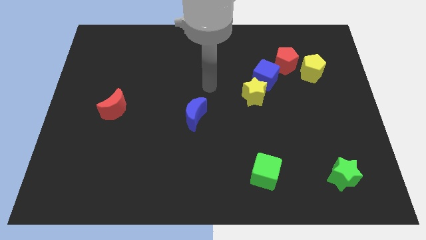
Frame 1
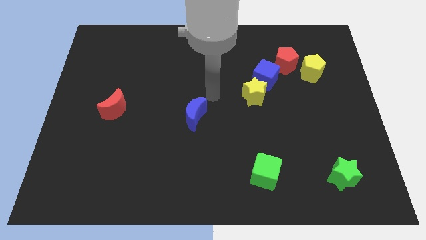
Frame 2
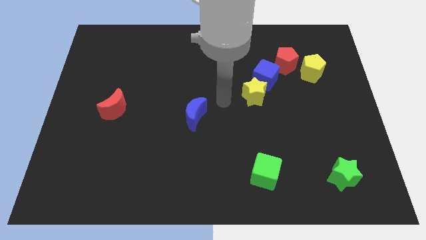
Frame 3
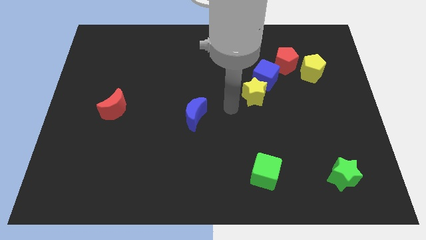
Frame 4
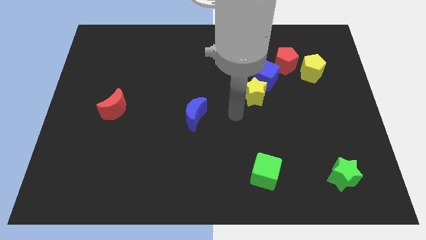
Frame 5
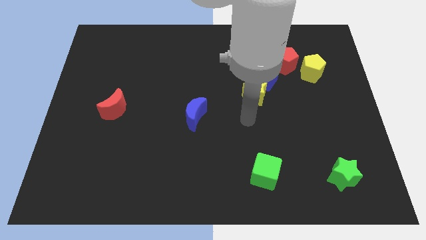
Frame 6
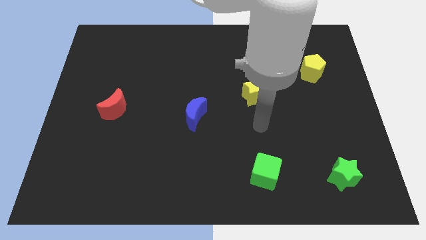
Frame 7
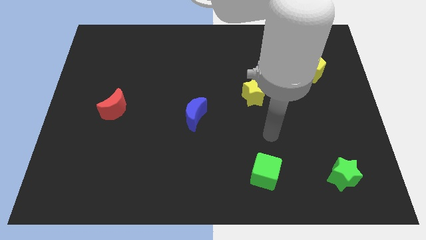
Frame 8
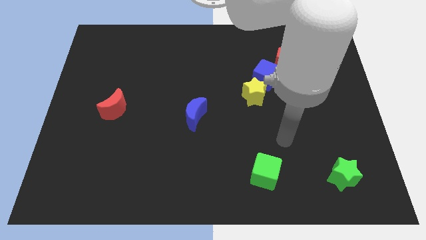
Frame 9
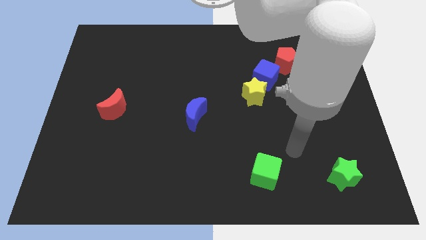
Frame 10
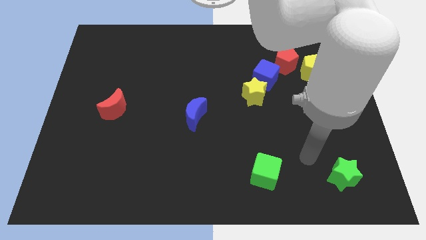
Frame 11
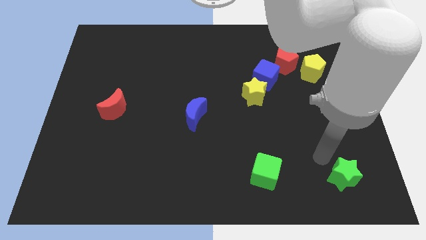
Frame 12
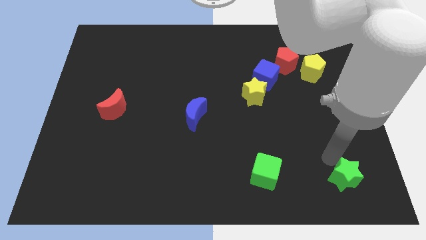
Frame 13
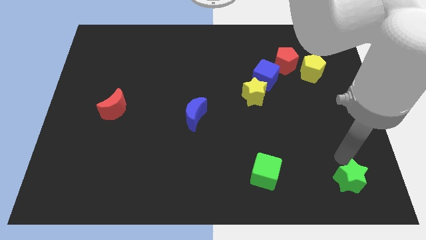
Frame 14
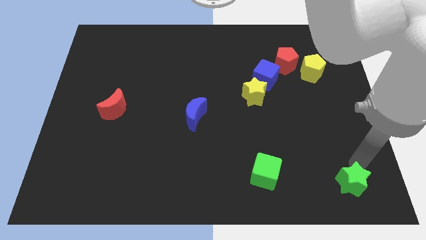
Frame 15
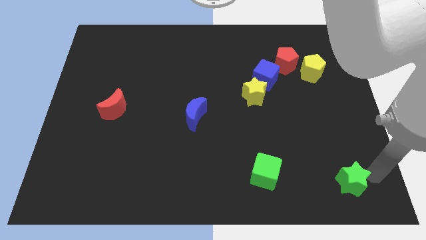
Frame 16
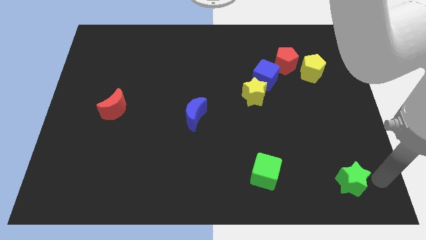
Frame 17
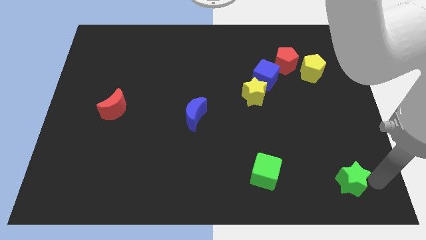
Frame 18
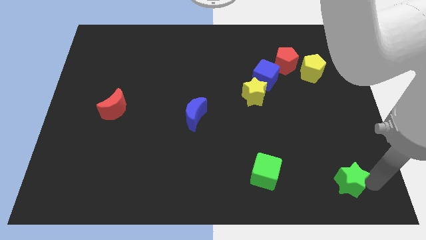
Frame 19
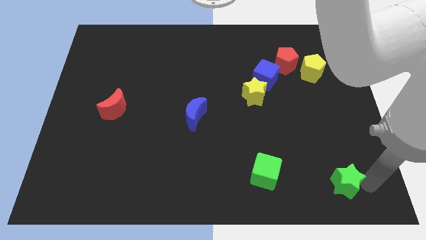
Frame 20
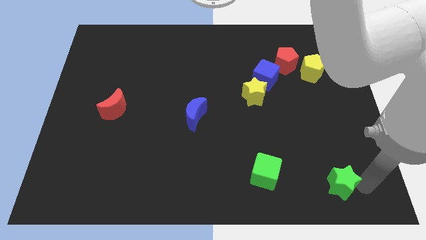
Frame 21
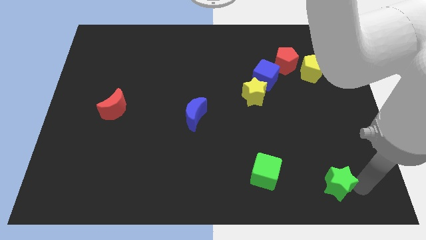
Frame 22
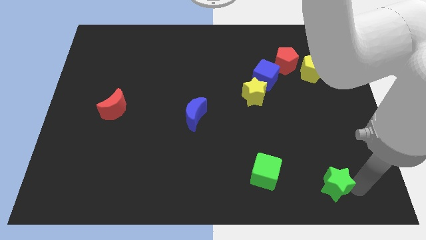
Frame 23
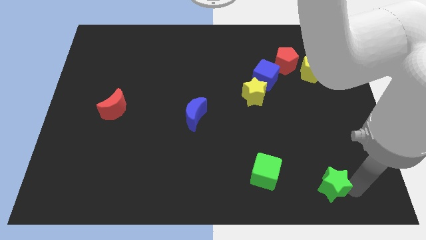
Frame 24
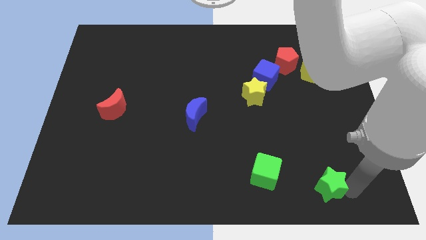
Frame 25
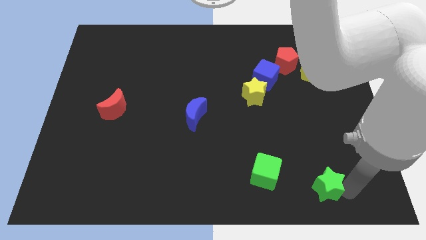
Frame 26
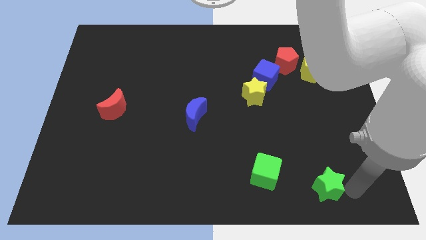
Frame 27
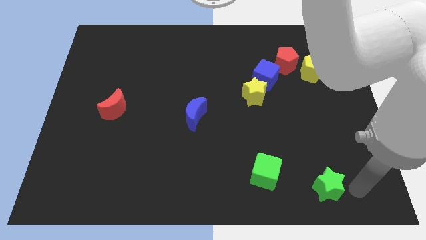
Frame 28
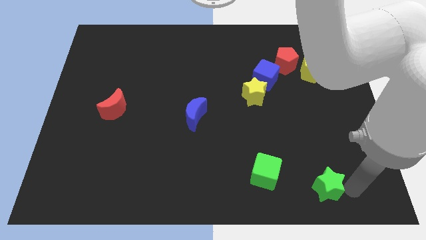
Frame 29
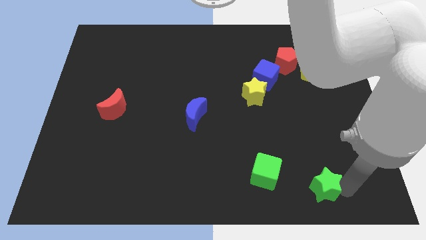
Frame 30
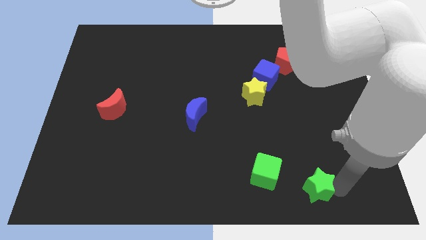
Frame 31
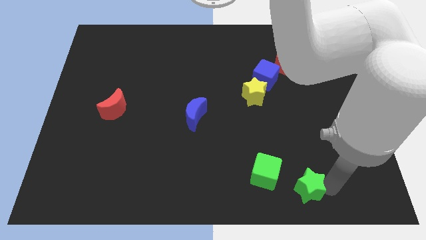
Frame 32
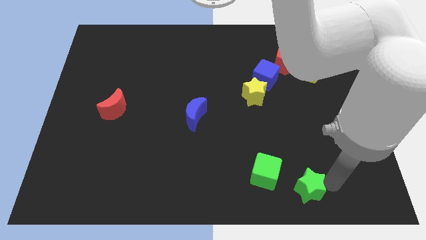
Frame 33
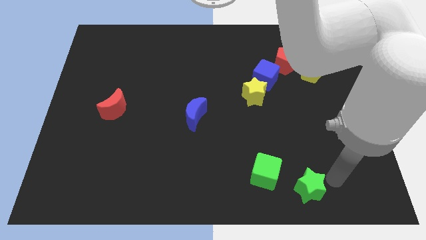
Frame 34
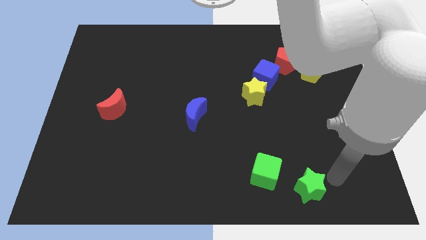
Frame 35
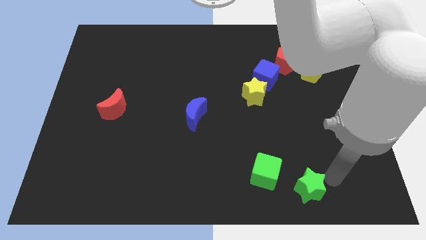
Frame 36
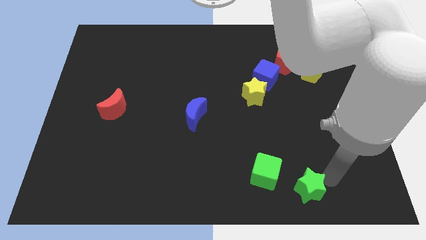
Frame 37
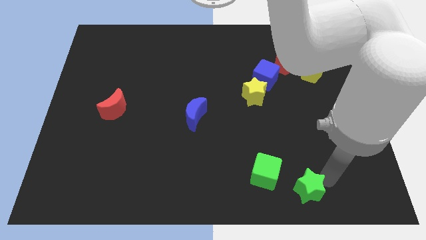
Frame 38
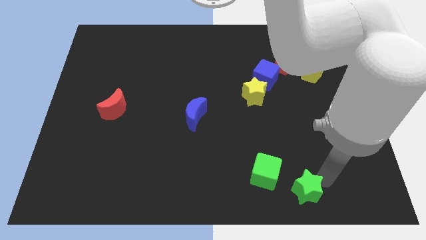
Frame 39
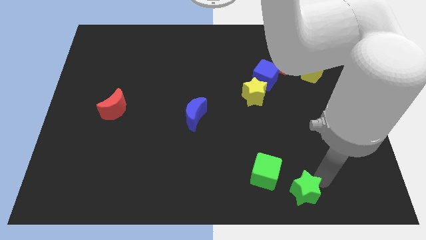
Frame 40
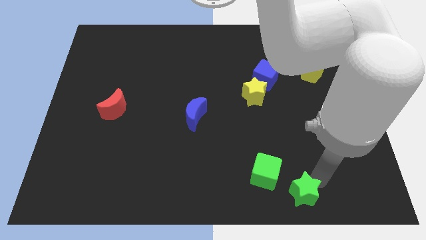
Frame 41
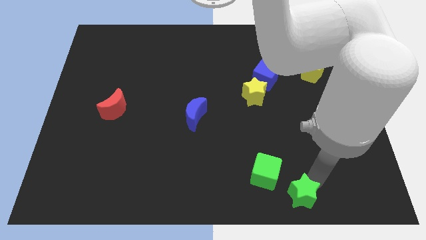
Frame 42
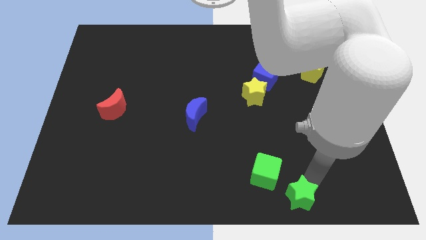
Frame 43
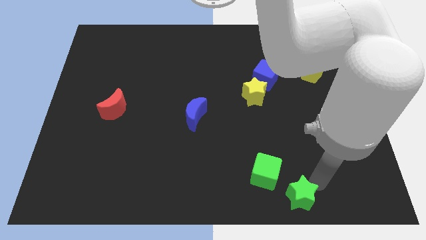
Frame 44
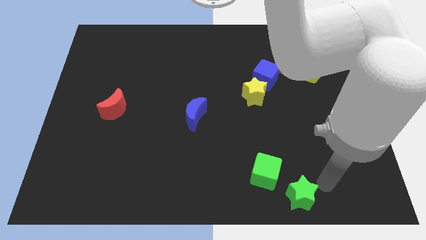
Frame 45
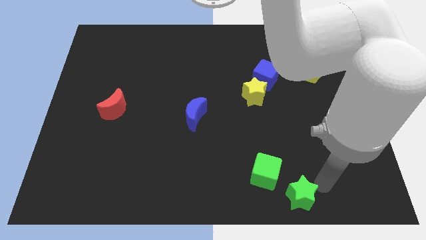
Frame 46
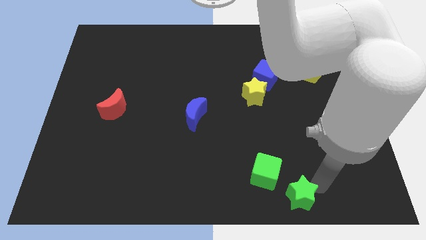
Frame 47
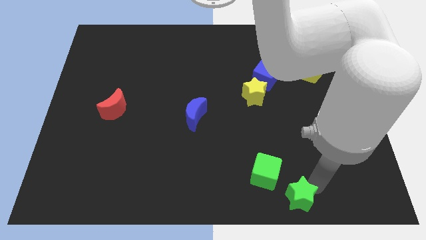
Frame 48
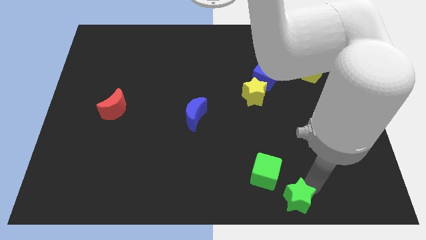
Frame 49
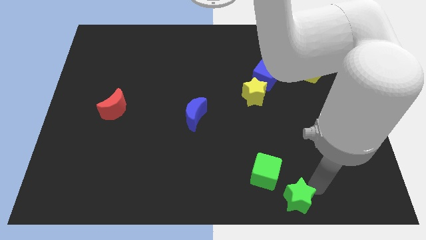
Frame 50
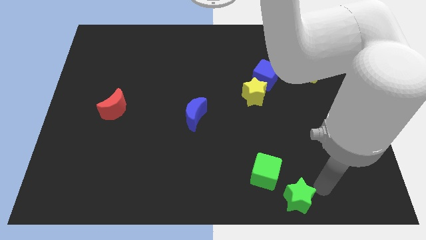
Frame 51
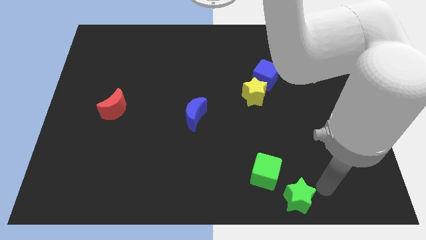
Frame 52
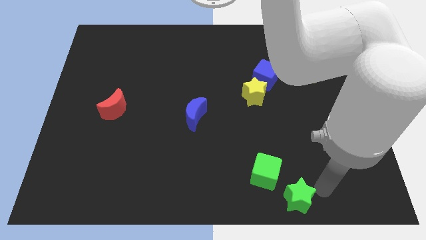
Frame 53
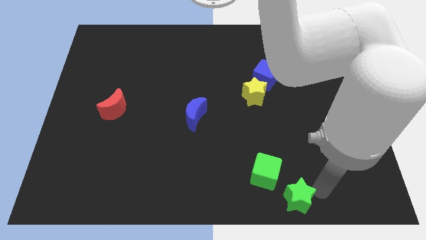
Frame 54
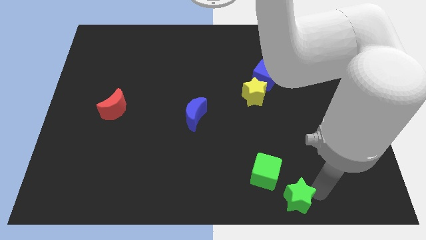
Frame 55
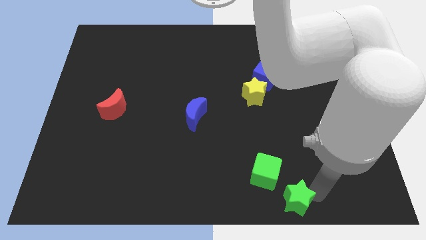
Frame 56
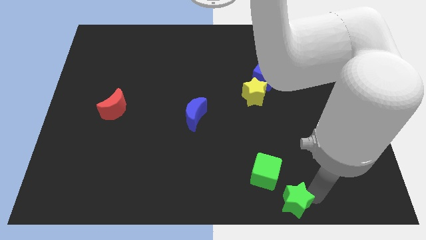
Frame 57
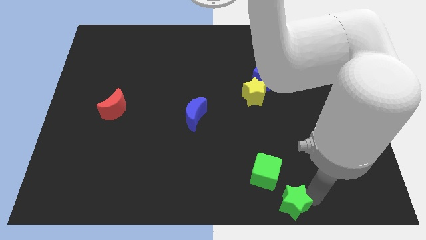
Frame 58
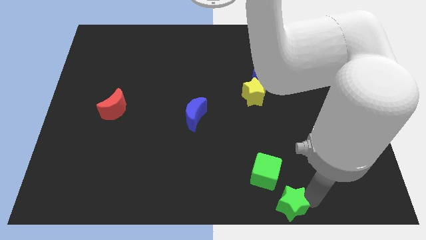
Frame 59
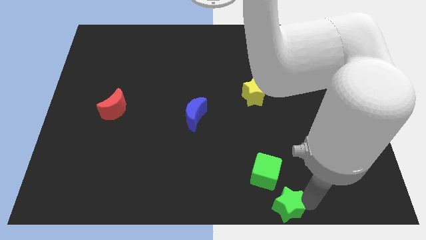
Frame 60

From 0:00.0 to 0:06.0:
push the green star to the bottom

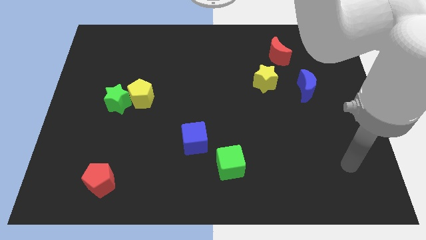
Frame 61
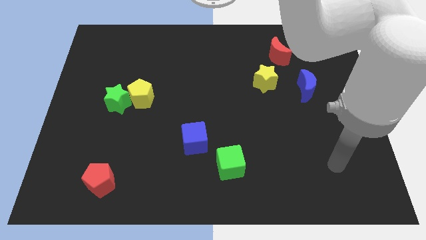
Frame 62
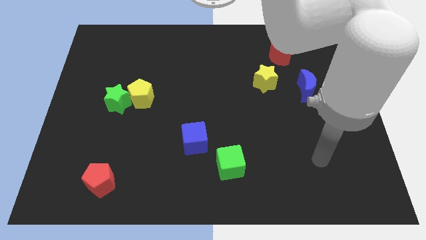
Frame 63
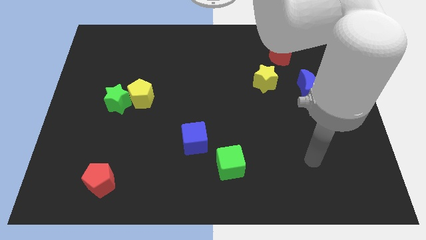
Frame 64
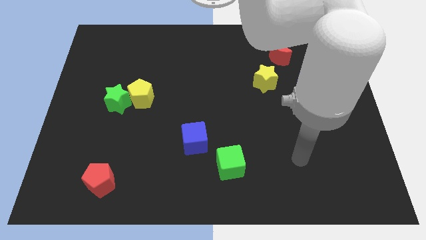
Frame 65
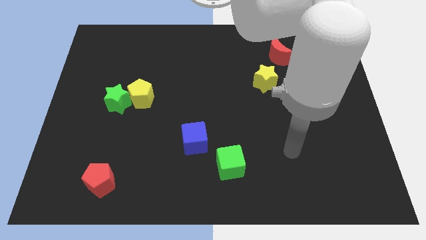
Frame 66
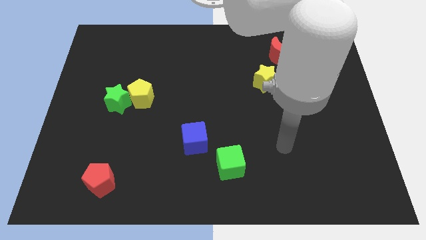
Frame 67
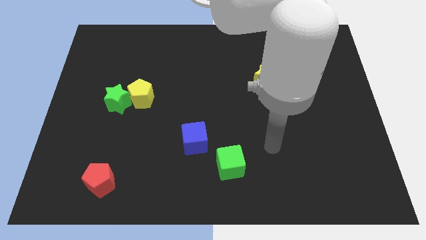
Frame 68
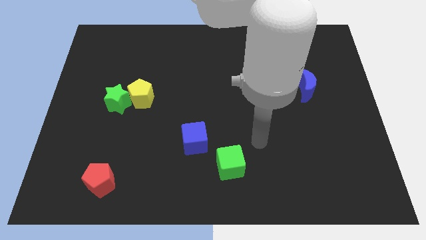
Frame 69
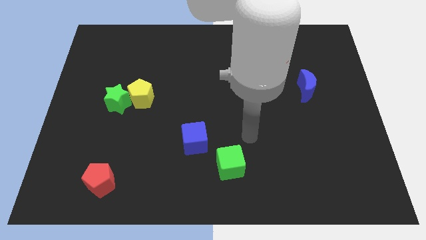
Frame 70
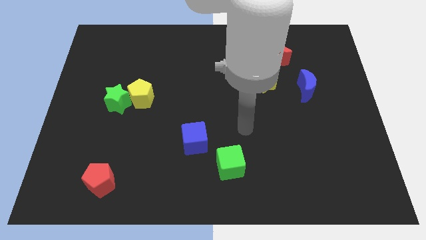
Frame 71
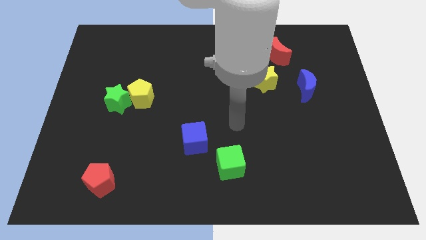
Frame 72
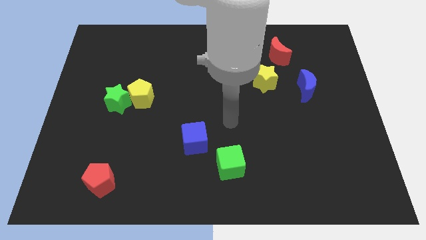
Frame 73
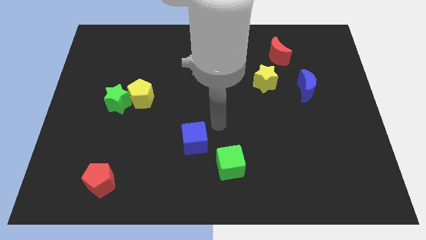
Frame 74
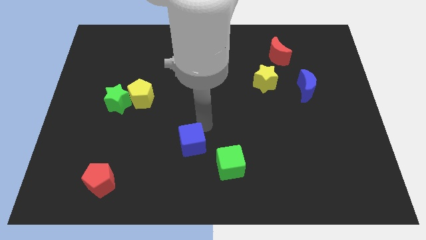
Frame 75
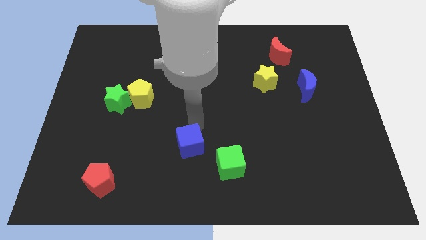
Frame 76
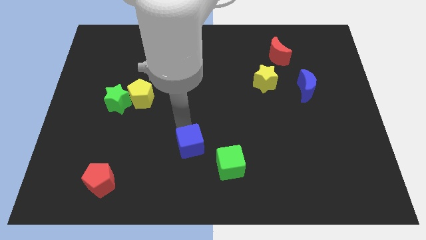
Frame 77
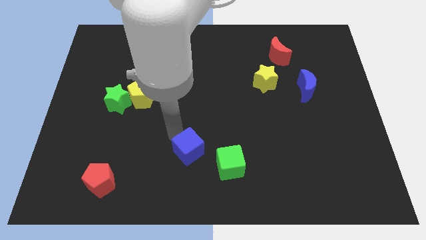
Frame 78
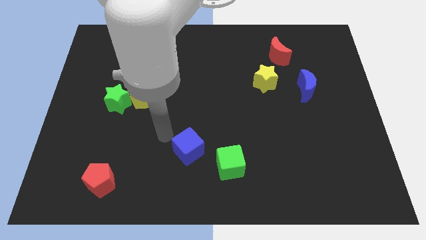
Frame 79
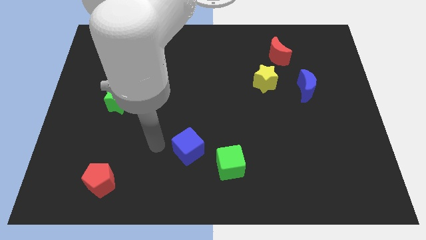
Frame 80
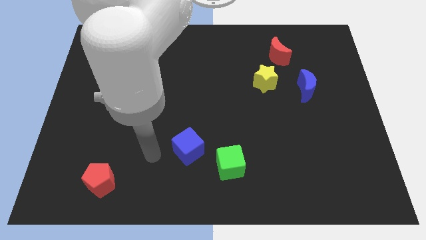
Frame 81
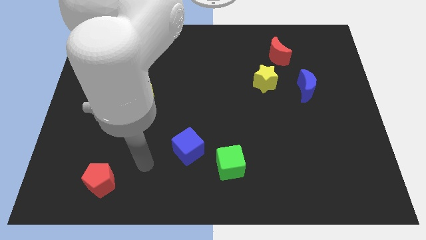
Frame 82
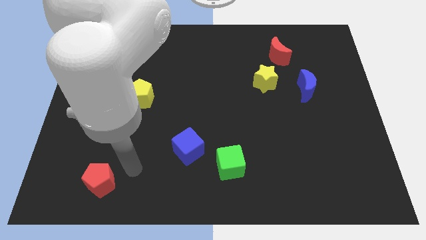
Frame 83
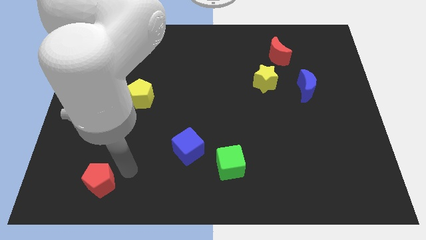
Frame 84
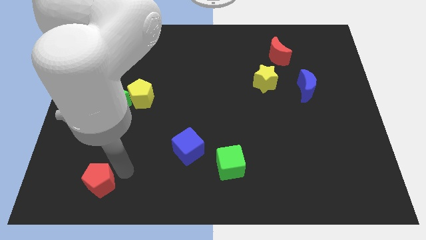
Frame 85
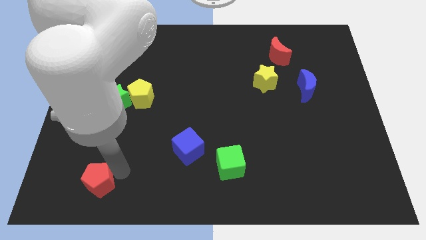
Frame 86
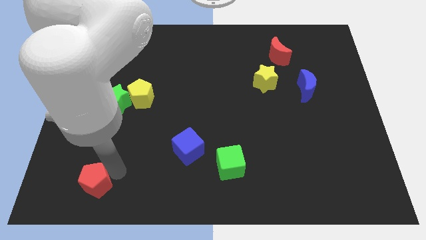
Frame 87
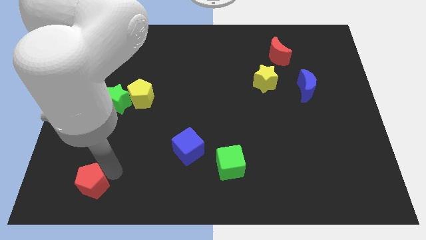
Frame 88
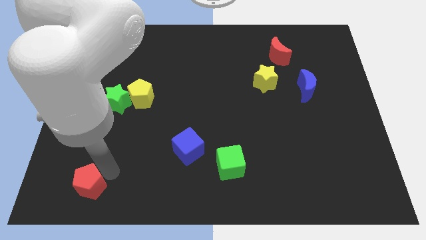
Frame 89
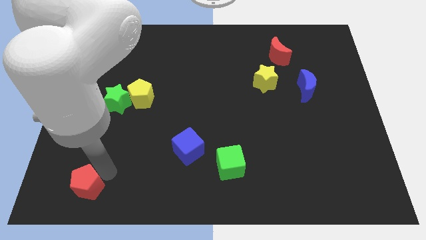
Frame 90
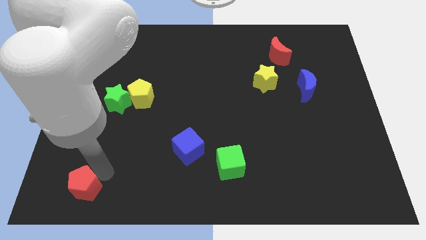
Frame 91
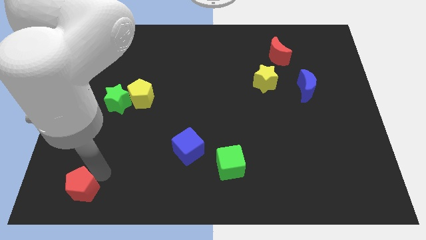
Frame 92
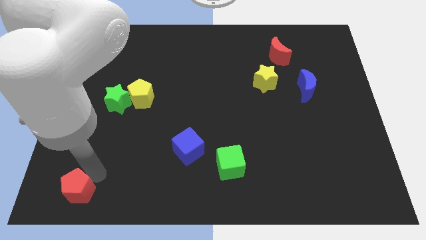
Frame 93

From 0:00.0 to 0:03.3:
put the red pentagon to the bottom left of the board
